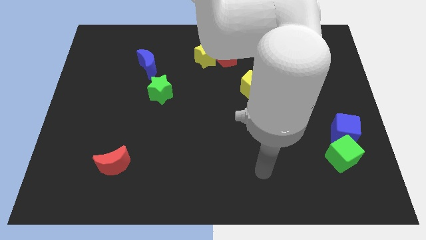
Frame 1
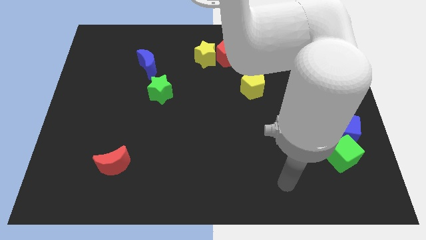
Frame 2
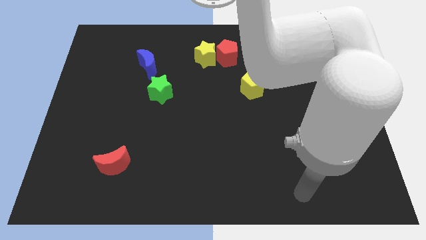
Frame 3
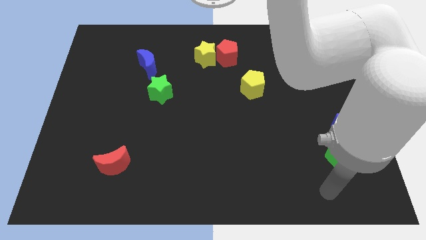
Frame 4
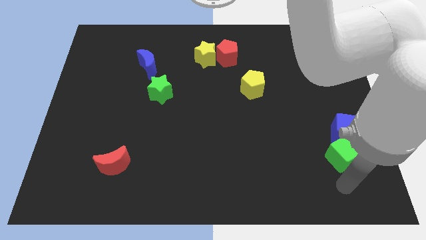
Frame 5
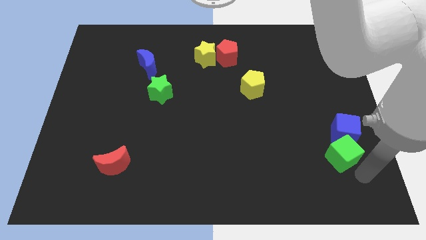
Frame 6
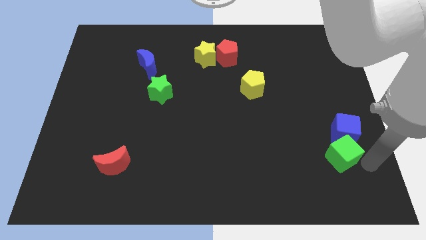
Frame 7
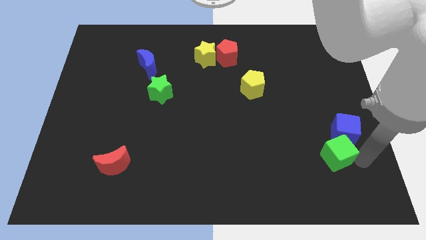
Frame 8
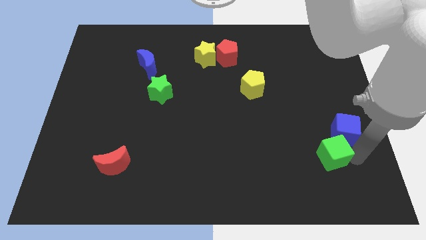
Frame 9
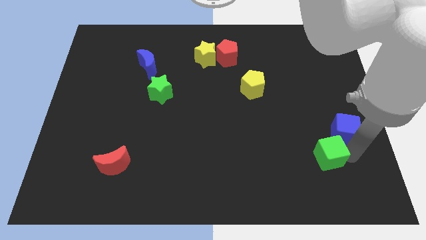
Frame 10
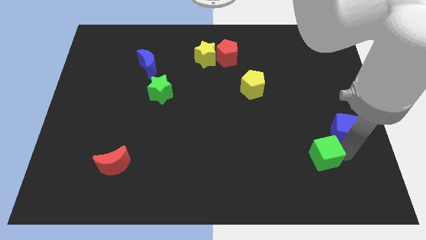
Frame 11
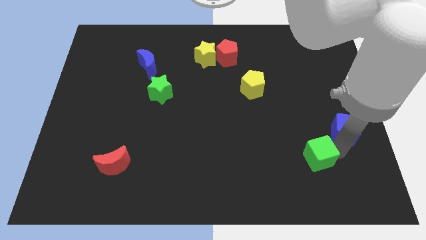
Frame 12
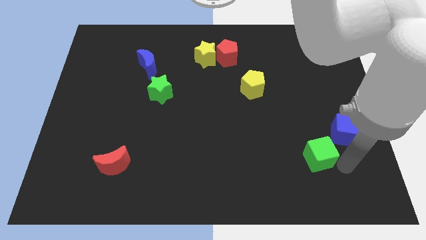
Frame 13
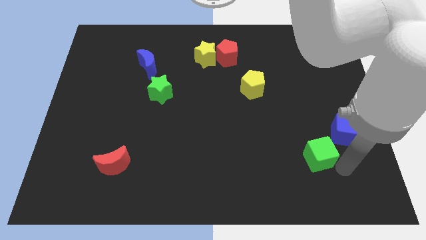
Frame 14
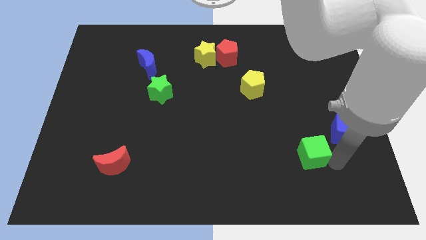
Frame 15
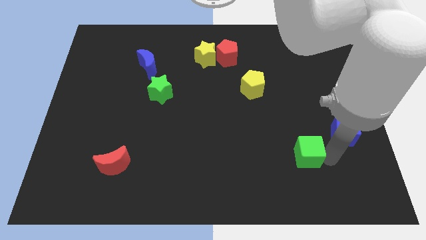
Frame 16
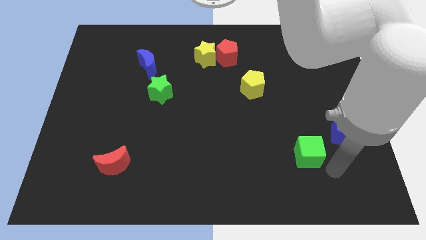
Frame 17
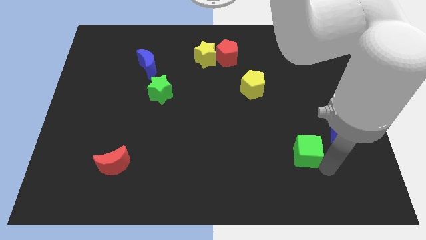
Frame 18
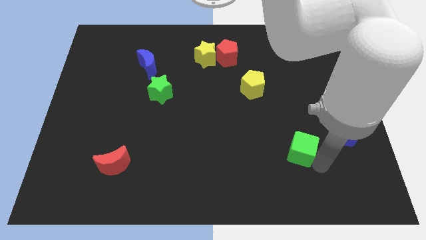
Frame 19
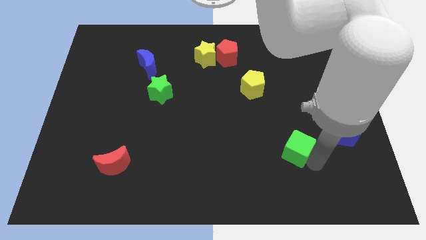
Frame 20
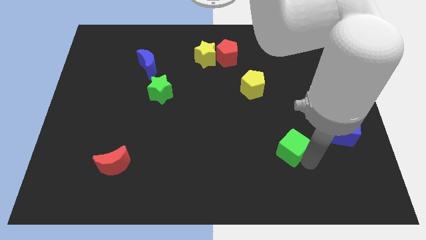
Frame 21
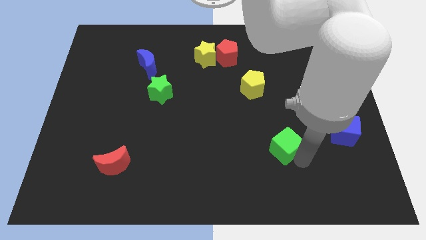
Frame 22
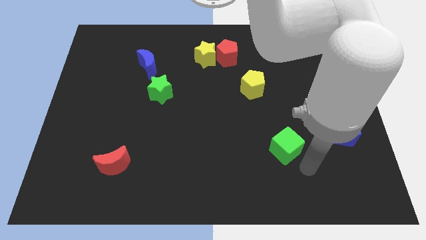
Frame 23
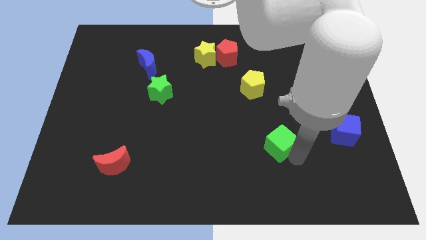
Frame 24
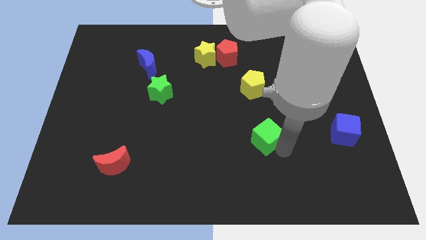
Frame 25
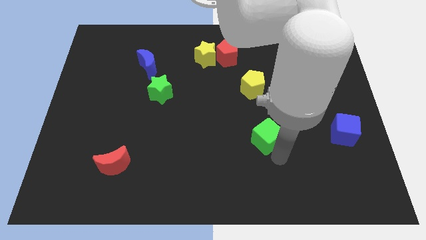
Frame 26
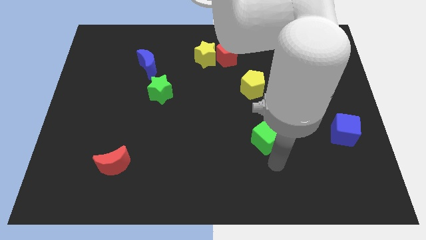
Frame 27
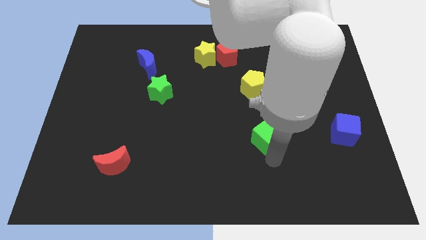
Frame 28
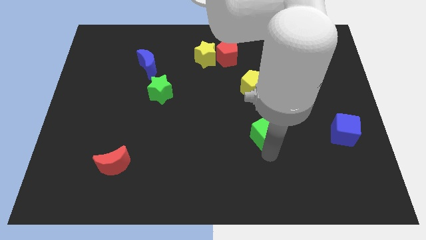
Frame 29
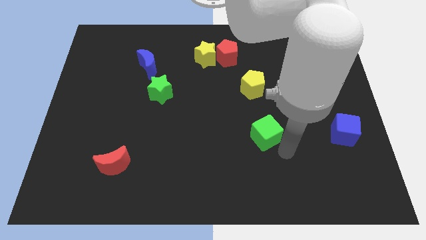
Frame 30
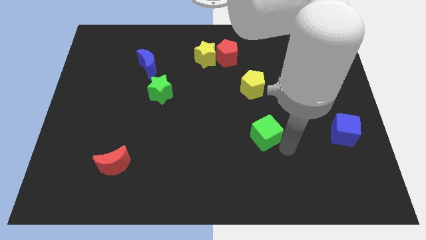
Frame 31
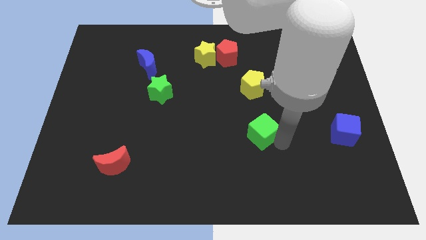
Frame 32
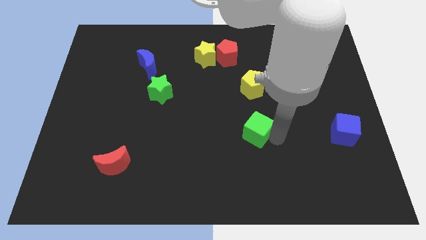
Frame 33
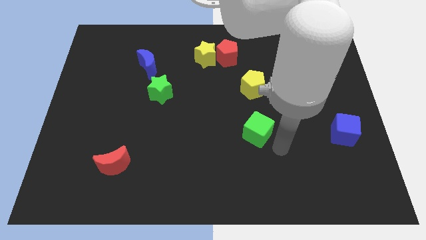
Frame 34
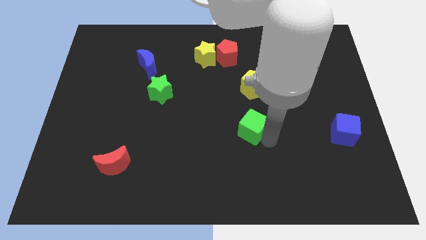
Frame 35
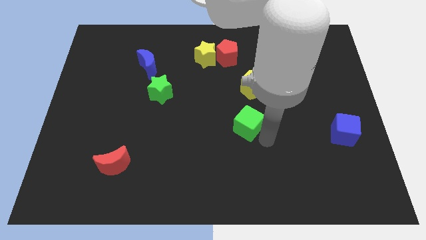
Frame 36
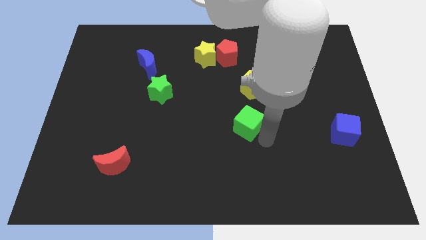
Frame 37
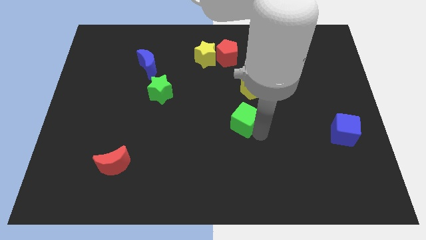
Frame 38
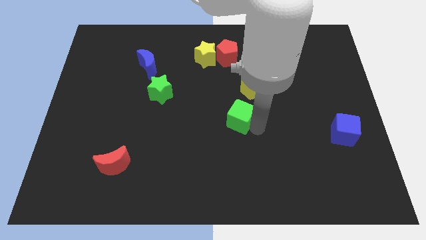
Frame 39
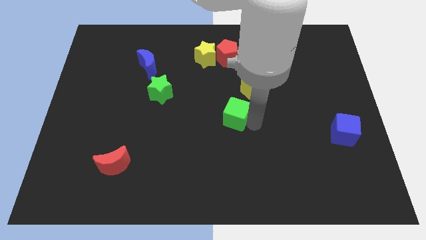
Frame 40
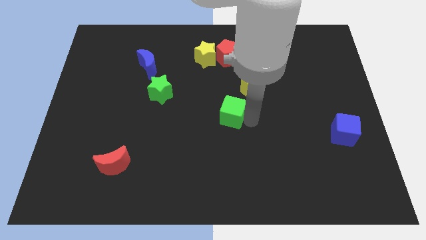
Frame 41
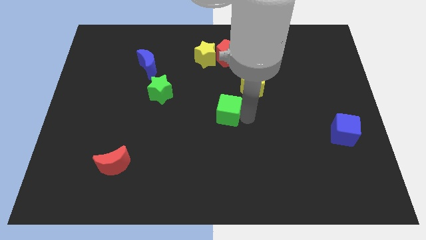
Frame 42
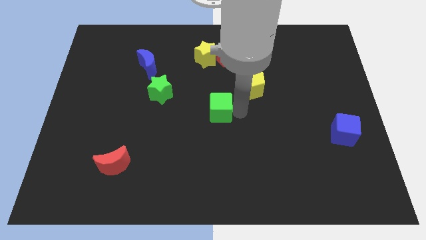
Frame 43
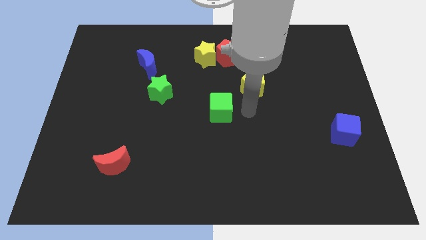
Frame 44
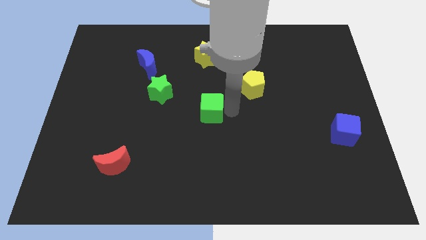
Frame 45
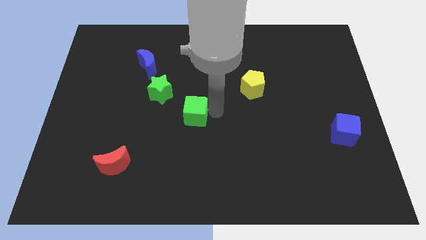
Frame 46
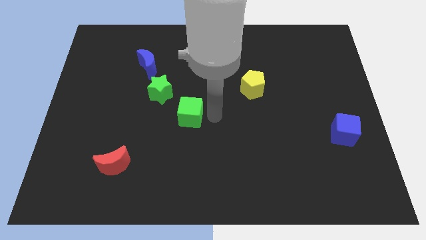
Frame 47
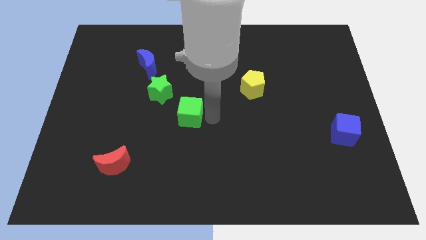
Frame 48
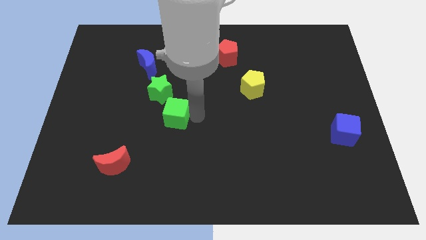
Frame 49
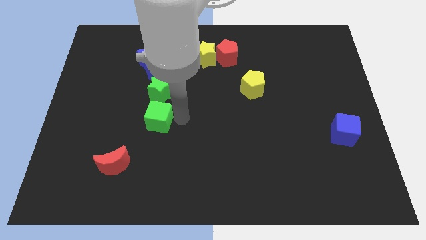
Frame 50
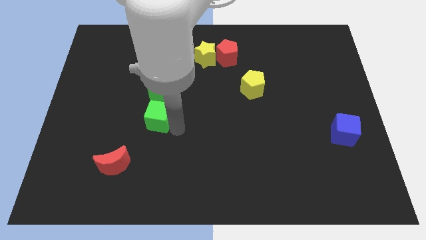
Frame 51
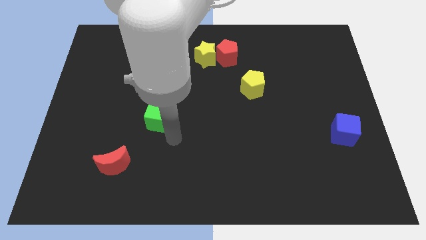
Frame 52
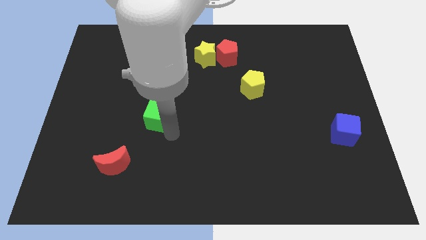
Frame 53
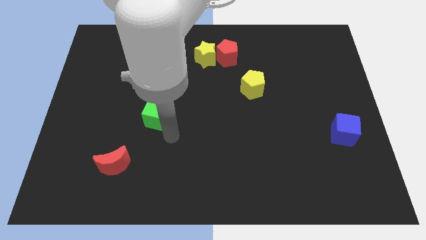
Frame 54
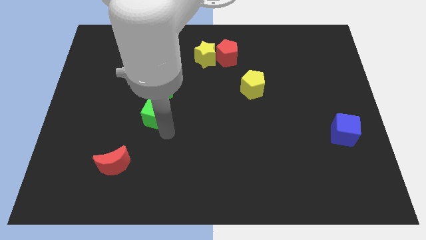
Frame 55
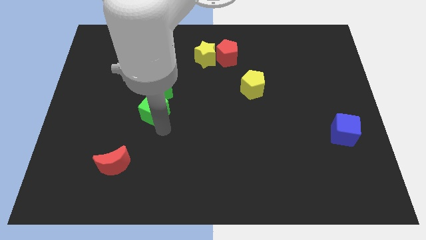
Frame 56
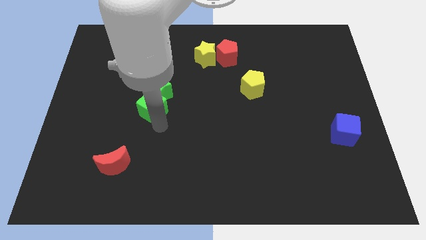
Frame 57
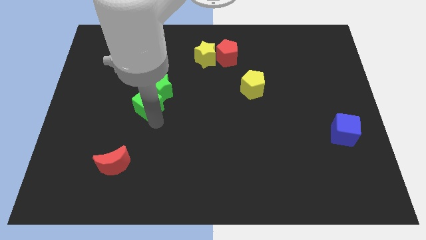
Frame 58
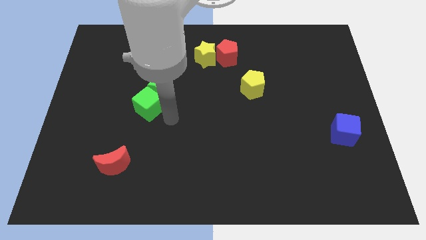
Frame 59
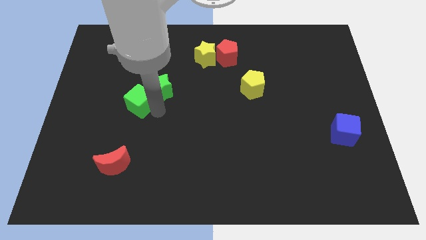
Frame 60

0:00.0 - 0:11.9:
slide the green cube to the left side of the green star

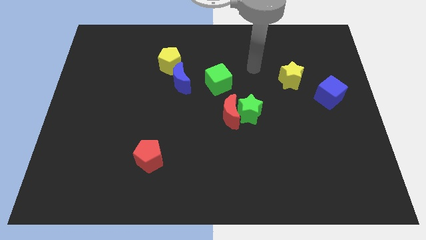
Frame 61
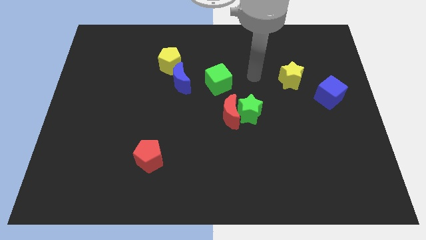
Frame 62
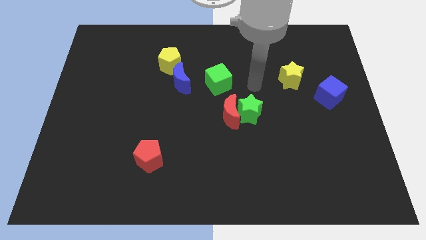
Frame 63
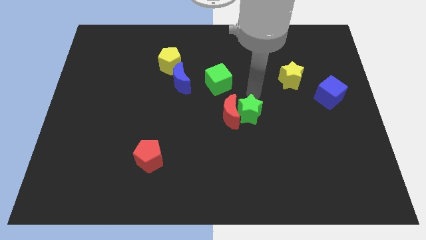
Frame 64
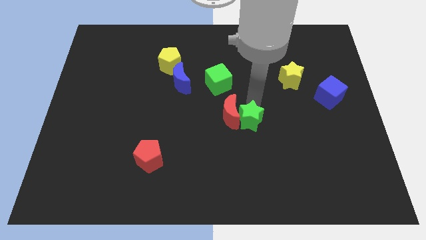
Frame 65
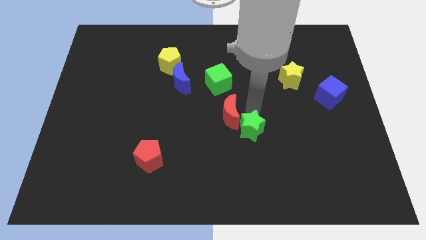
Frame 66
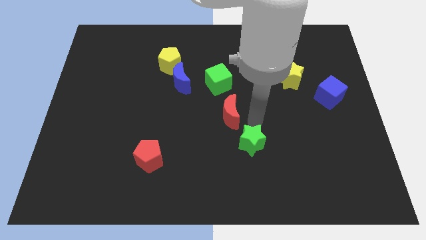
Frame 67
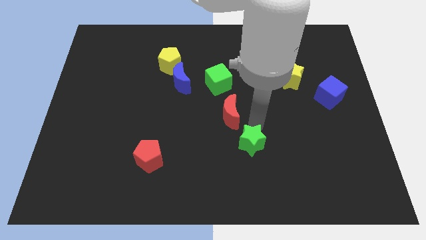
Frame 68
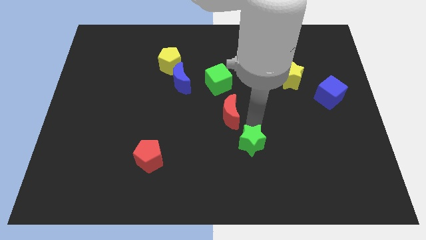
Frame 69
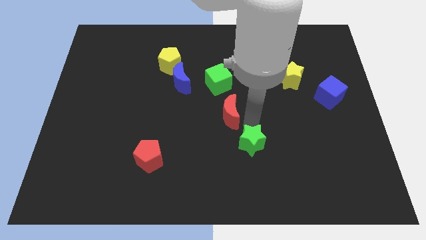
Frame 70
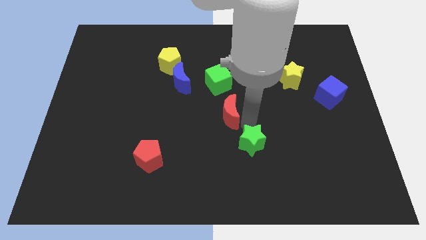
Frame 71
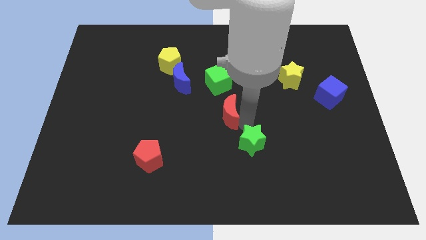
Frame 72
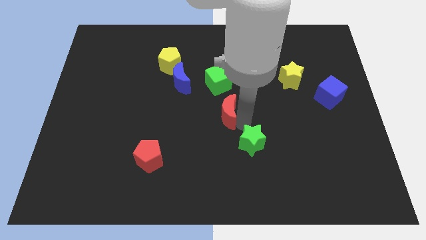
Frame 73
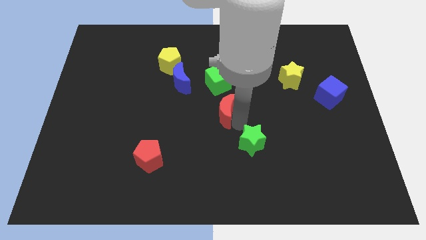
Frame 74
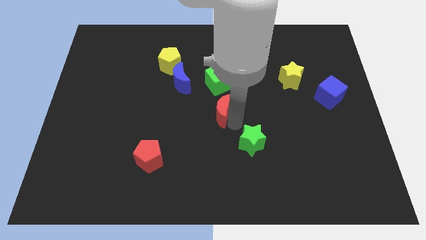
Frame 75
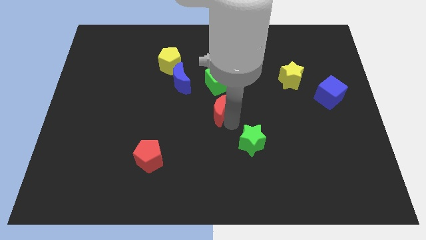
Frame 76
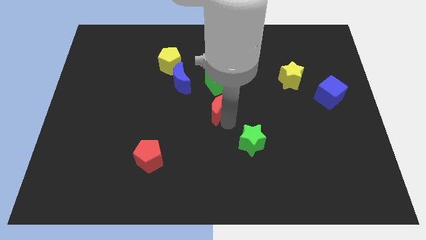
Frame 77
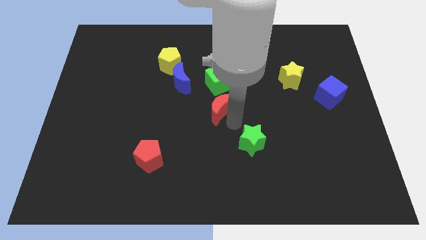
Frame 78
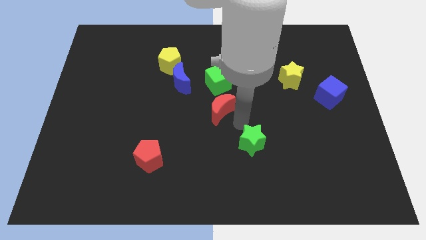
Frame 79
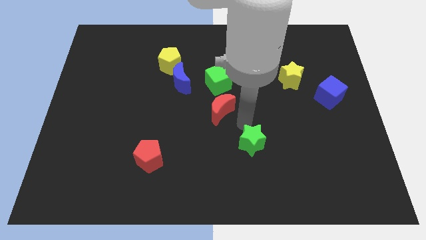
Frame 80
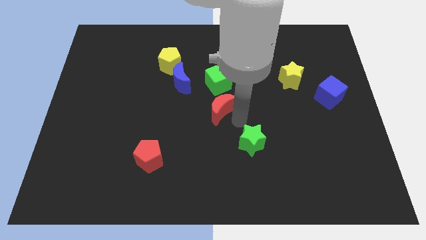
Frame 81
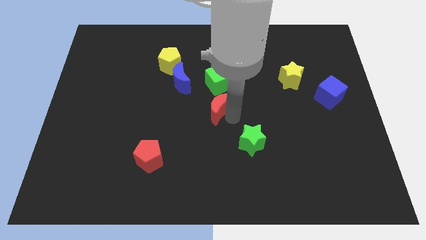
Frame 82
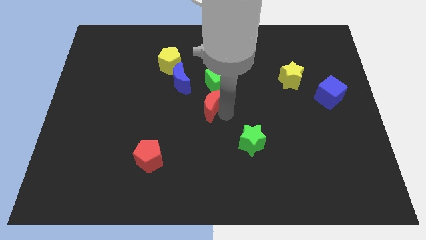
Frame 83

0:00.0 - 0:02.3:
slide the red moon diagonally down and to the left of the green cube
